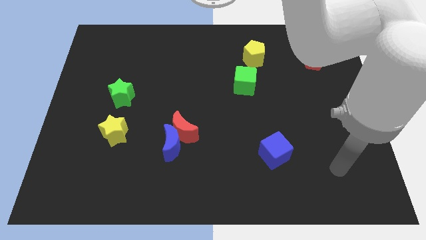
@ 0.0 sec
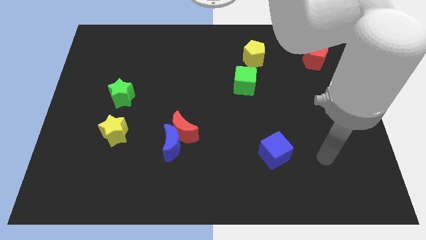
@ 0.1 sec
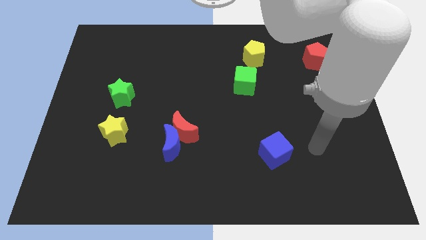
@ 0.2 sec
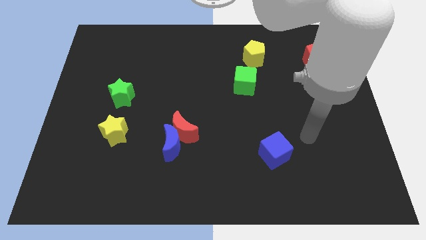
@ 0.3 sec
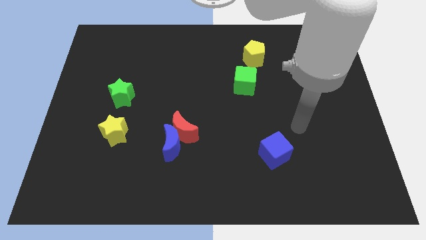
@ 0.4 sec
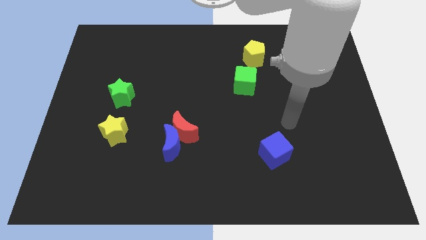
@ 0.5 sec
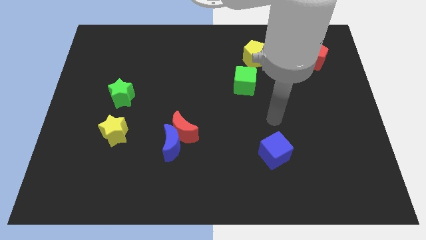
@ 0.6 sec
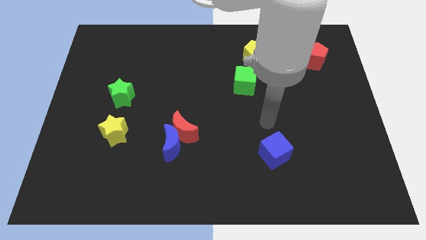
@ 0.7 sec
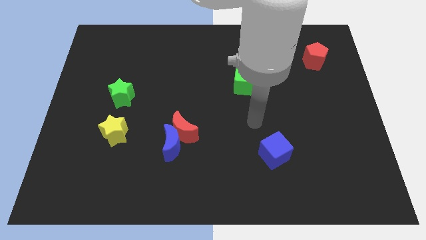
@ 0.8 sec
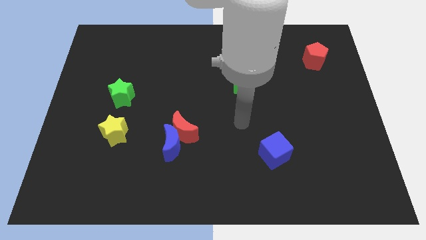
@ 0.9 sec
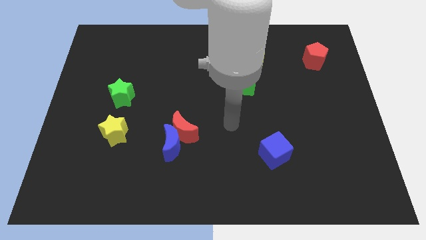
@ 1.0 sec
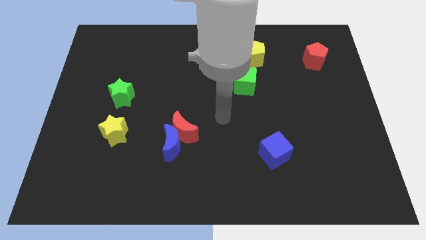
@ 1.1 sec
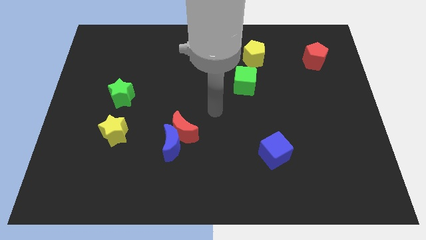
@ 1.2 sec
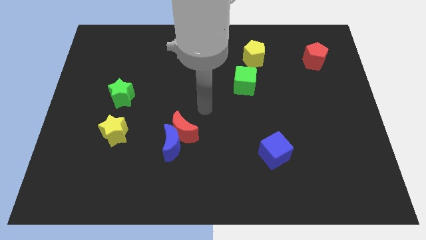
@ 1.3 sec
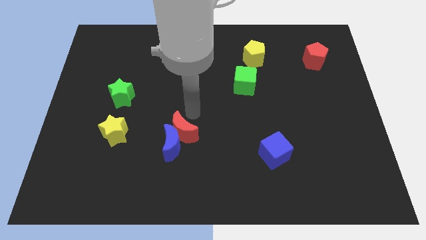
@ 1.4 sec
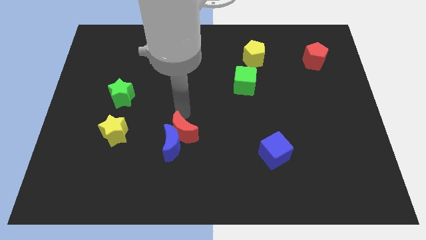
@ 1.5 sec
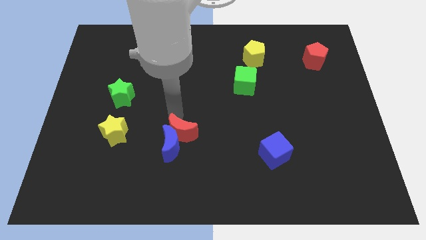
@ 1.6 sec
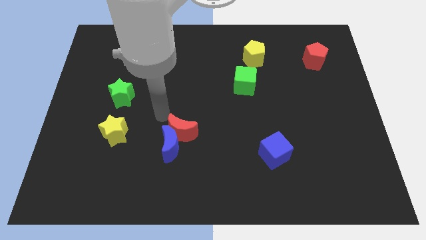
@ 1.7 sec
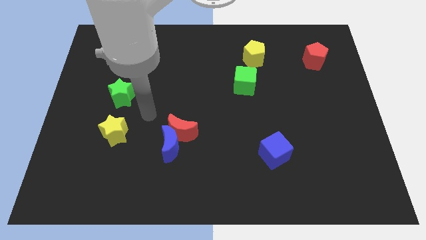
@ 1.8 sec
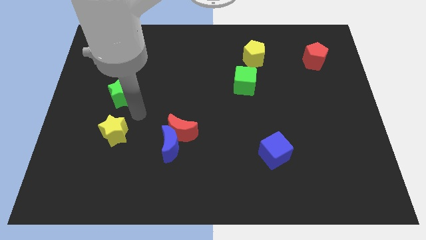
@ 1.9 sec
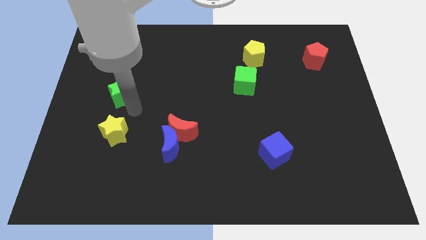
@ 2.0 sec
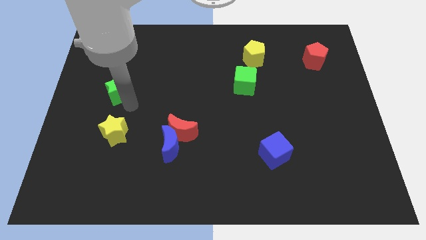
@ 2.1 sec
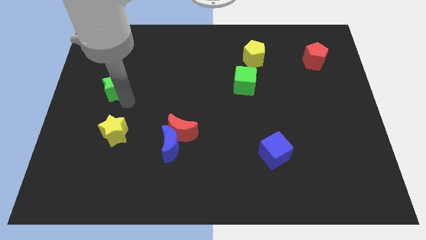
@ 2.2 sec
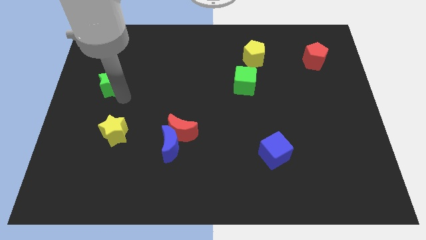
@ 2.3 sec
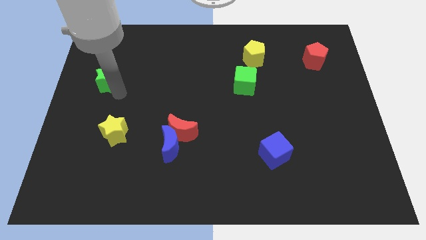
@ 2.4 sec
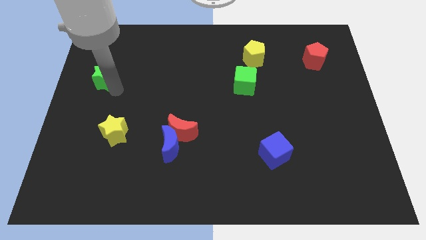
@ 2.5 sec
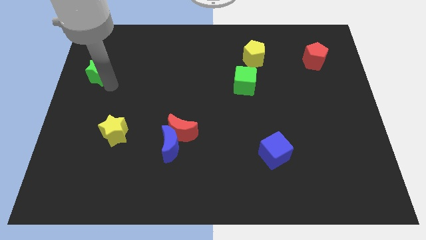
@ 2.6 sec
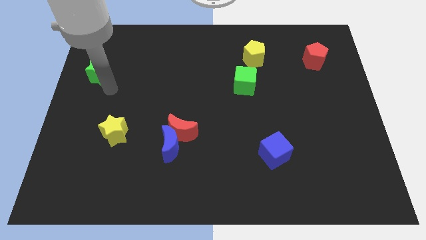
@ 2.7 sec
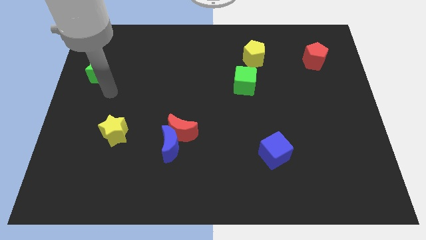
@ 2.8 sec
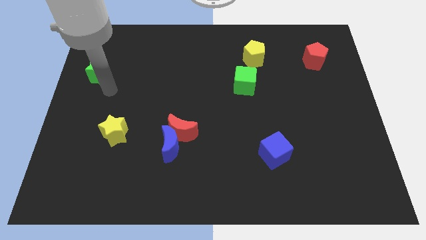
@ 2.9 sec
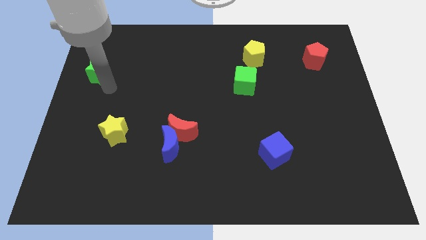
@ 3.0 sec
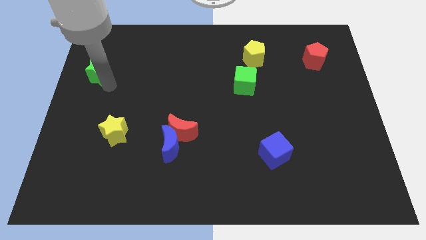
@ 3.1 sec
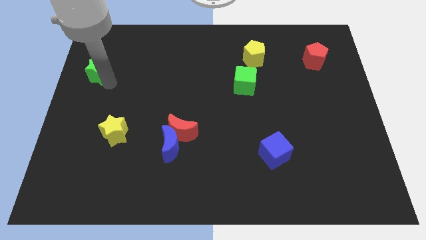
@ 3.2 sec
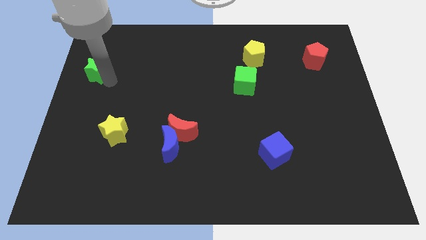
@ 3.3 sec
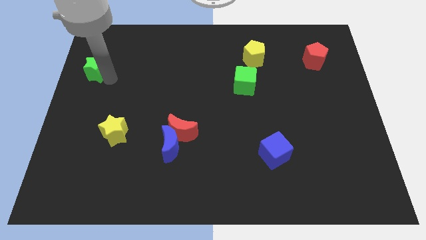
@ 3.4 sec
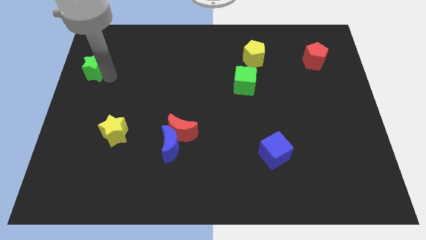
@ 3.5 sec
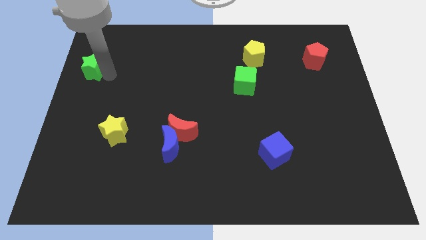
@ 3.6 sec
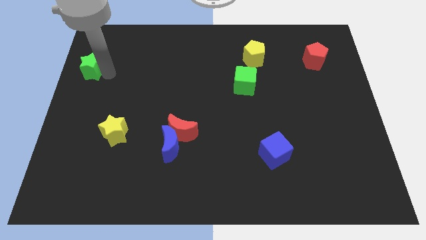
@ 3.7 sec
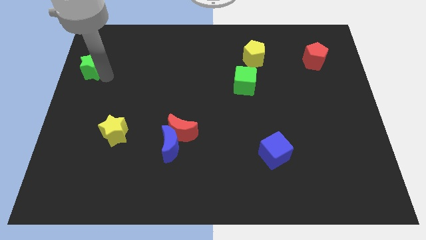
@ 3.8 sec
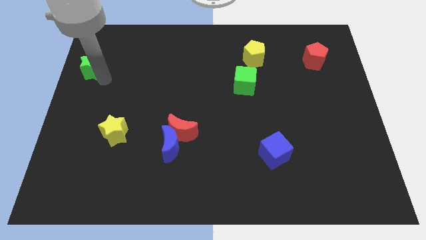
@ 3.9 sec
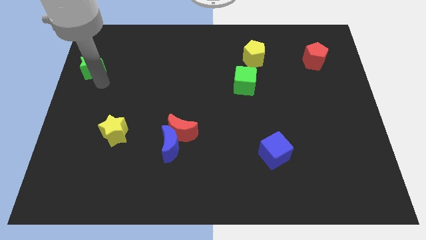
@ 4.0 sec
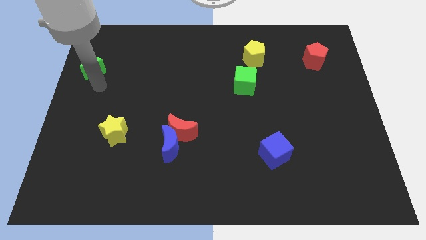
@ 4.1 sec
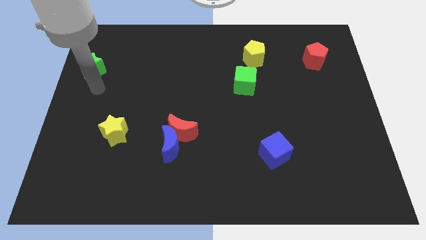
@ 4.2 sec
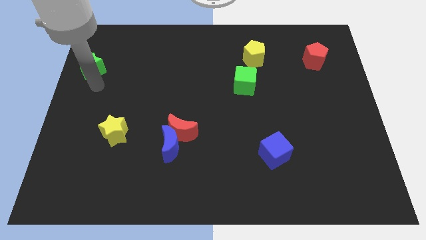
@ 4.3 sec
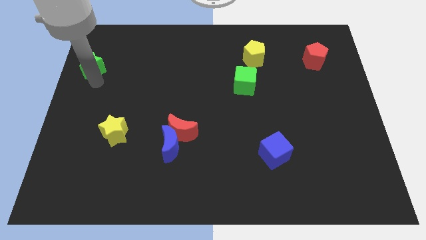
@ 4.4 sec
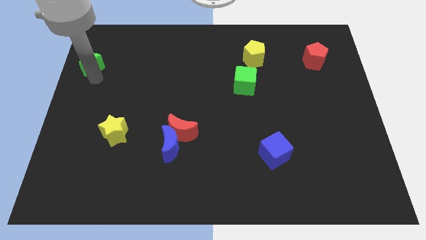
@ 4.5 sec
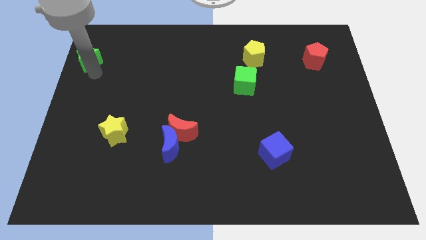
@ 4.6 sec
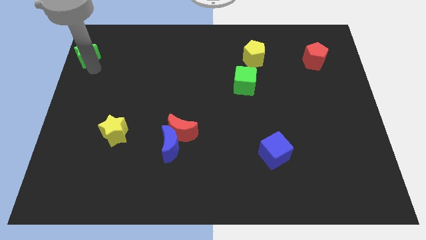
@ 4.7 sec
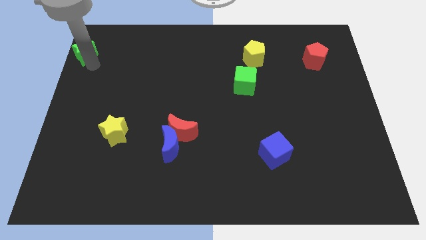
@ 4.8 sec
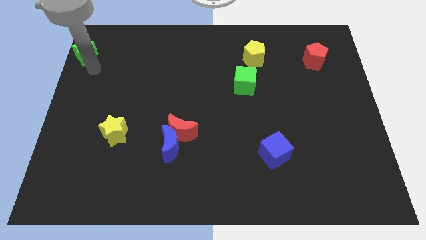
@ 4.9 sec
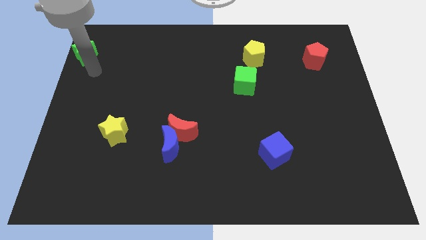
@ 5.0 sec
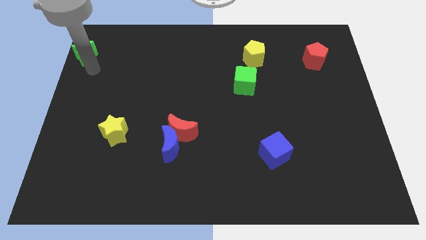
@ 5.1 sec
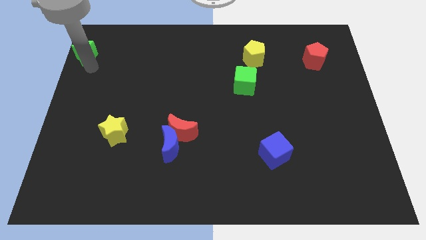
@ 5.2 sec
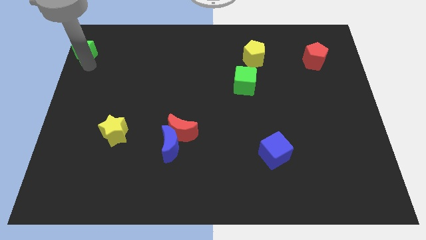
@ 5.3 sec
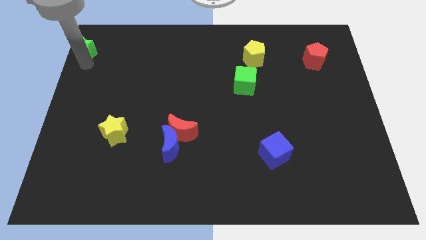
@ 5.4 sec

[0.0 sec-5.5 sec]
move the green star to the top left of the board
